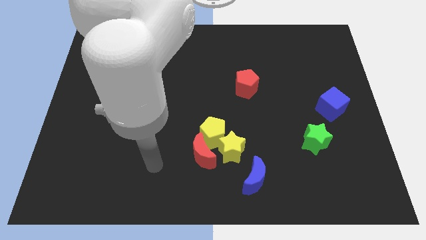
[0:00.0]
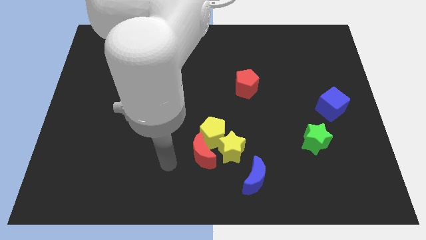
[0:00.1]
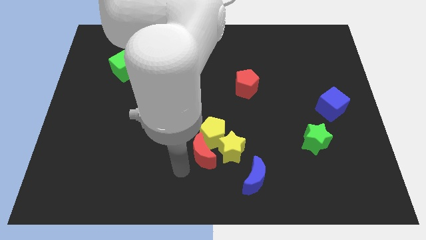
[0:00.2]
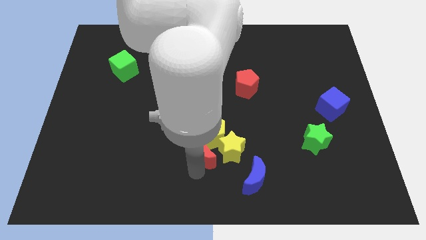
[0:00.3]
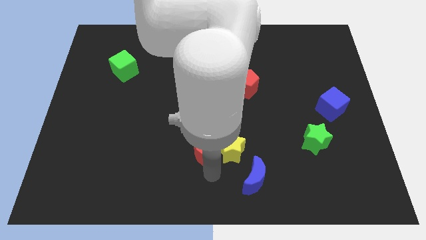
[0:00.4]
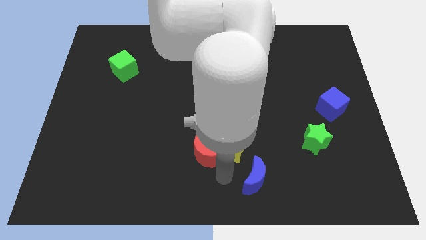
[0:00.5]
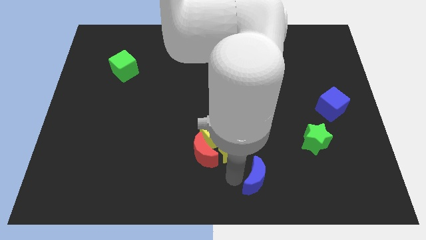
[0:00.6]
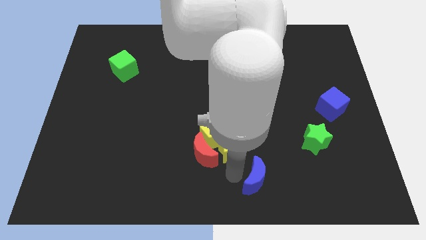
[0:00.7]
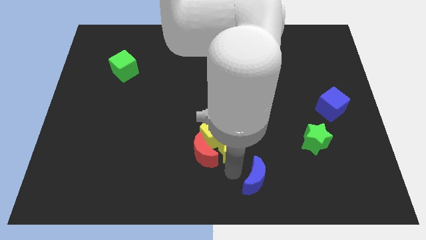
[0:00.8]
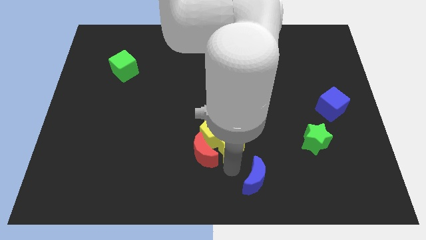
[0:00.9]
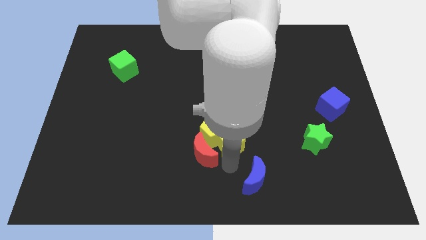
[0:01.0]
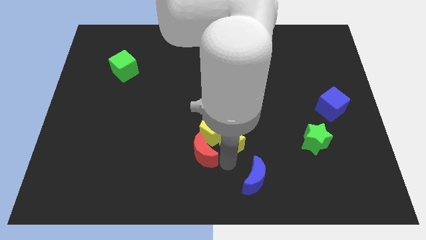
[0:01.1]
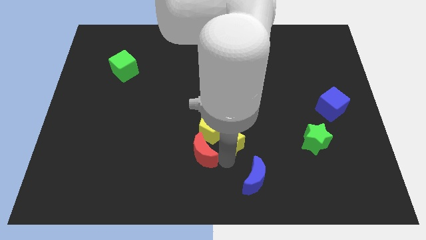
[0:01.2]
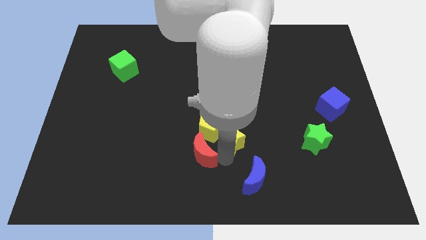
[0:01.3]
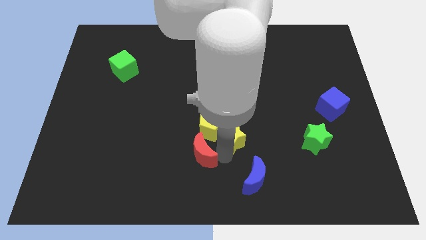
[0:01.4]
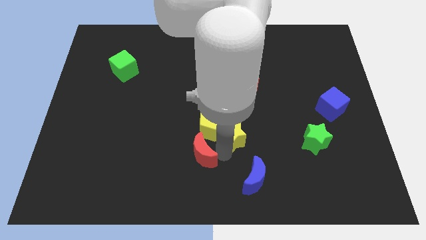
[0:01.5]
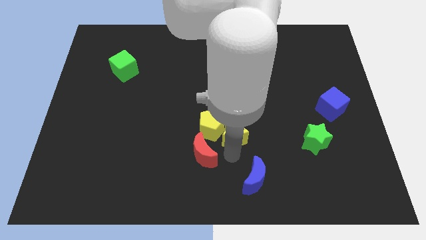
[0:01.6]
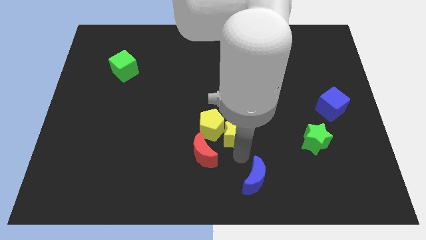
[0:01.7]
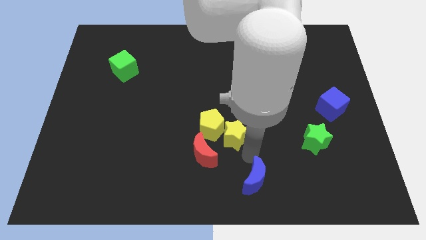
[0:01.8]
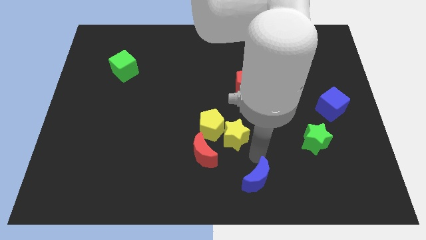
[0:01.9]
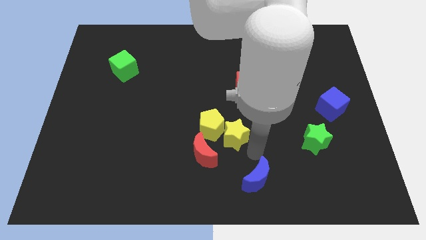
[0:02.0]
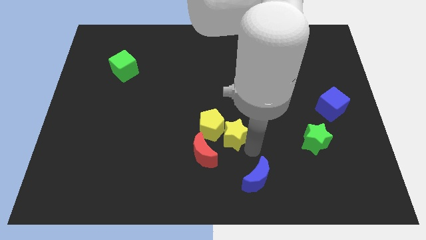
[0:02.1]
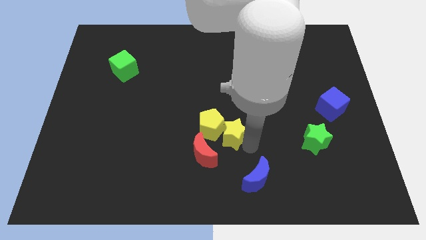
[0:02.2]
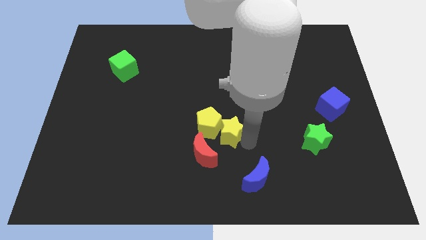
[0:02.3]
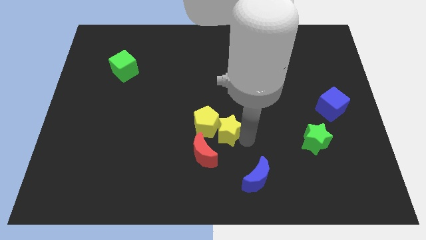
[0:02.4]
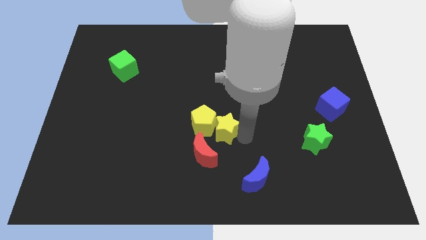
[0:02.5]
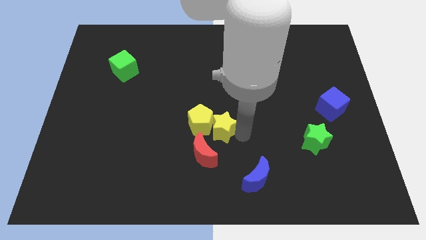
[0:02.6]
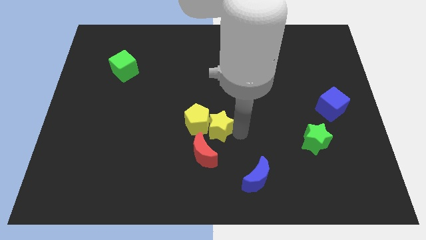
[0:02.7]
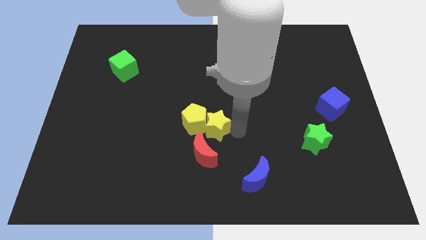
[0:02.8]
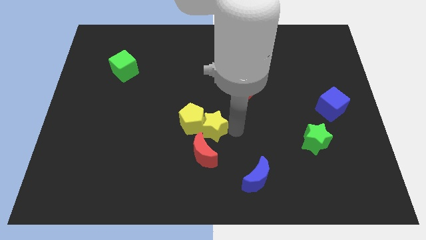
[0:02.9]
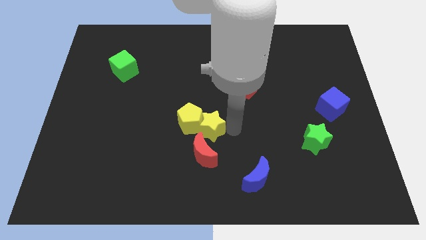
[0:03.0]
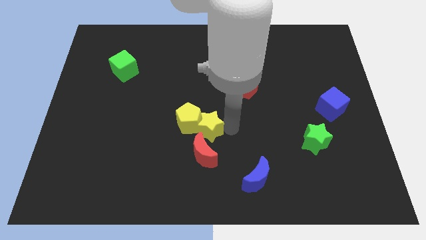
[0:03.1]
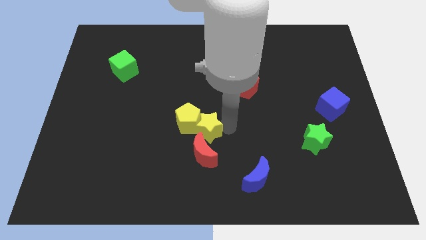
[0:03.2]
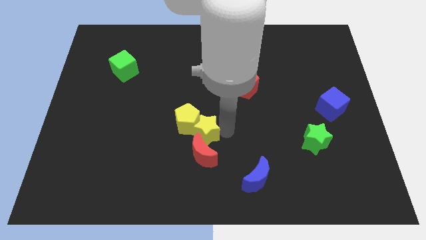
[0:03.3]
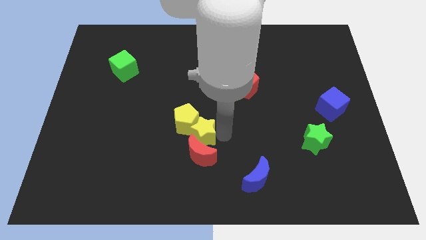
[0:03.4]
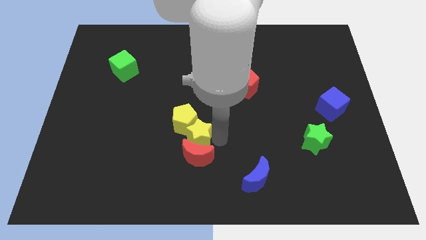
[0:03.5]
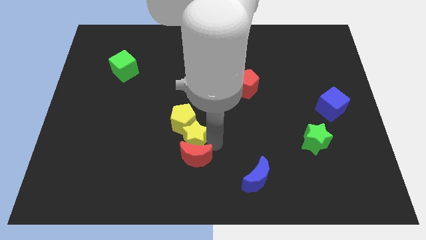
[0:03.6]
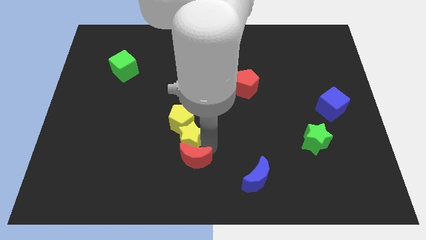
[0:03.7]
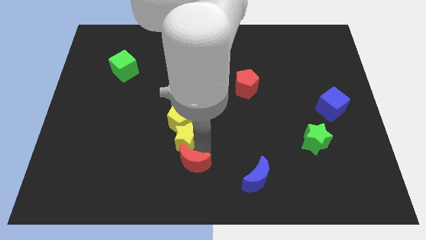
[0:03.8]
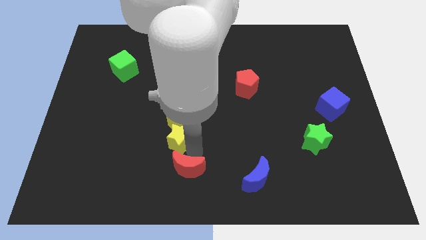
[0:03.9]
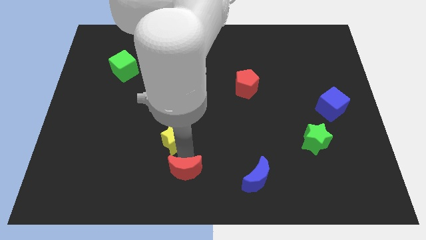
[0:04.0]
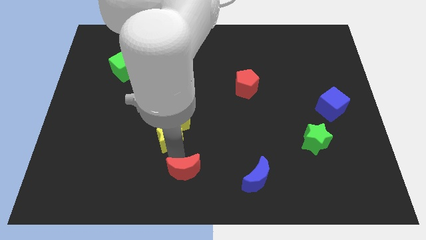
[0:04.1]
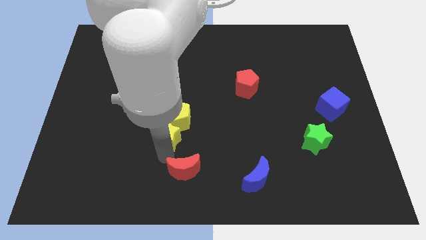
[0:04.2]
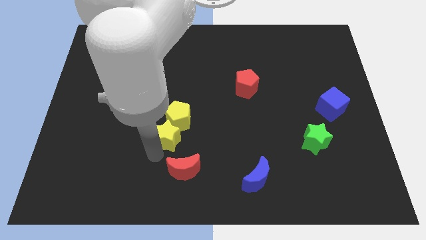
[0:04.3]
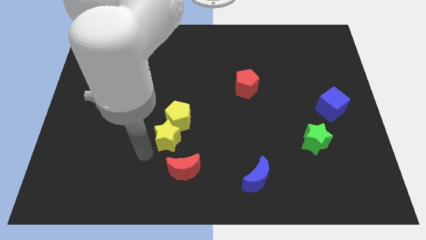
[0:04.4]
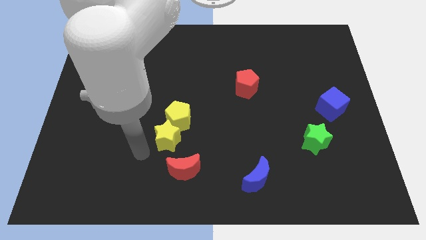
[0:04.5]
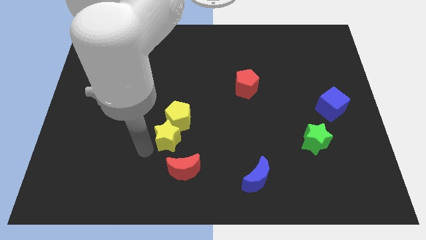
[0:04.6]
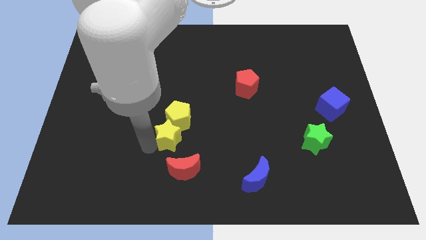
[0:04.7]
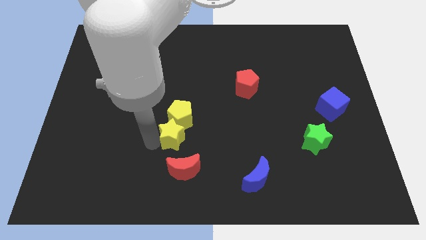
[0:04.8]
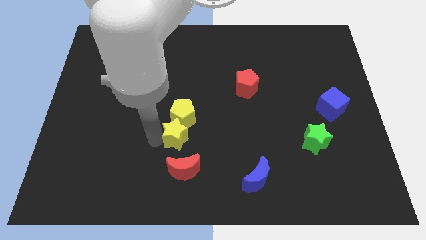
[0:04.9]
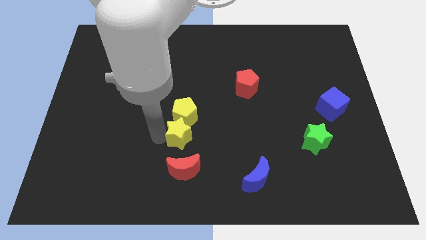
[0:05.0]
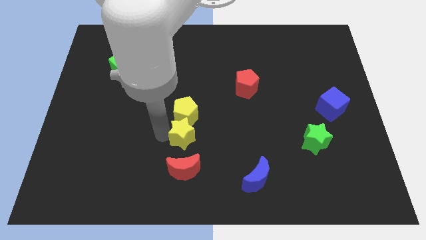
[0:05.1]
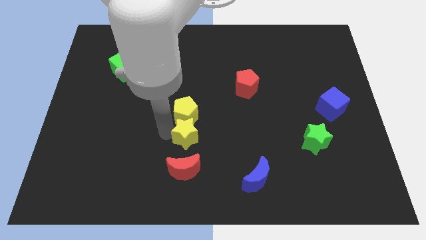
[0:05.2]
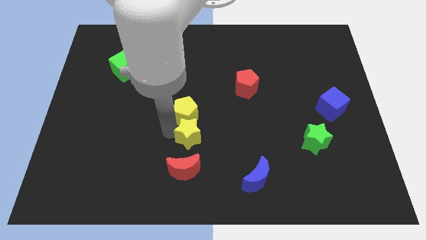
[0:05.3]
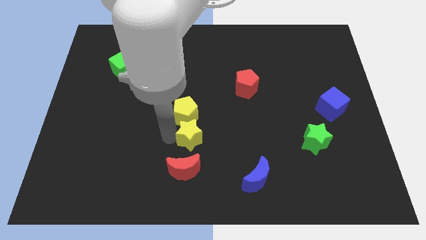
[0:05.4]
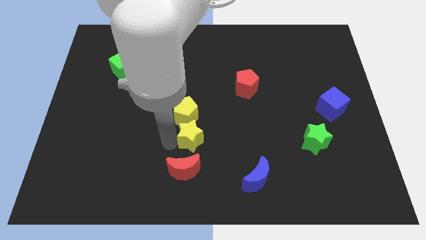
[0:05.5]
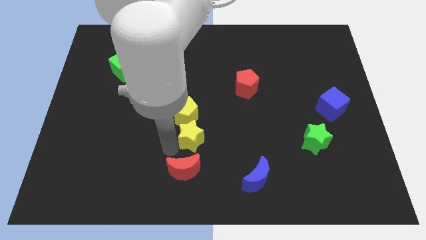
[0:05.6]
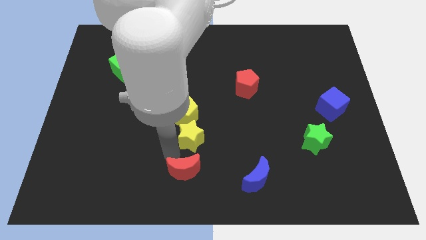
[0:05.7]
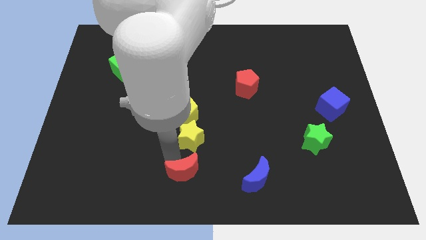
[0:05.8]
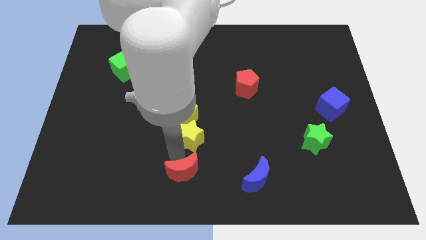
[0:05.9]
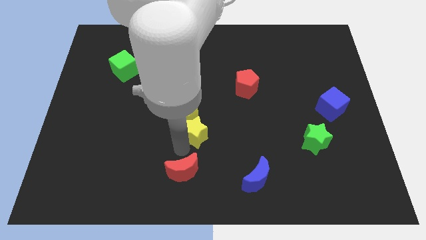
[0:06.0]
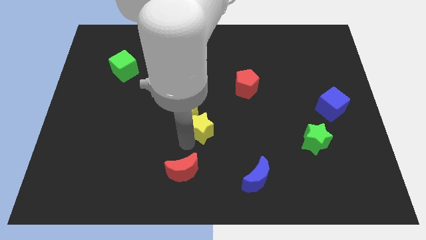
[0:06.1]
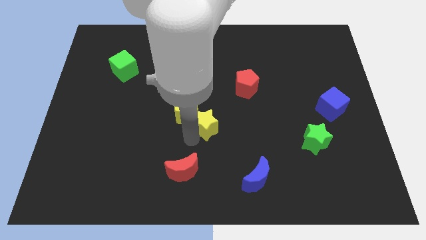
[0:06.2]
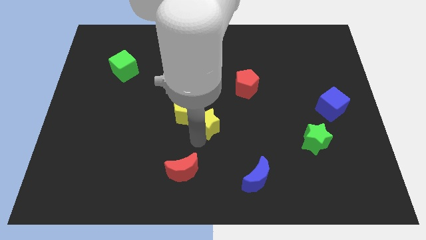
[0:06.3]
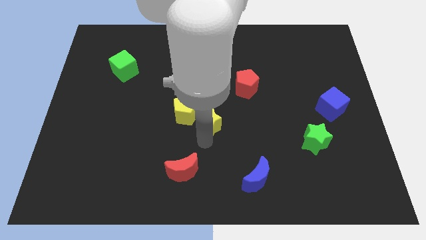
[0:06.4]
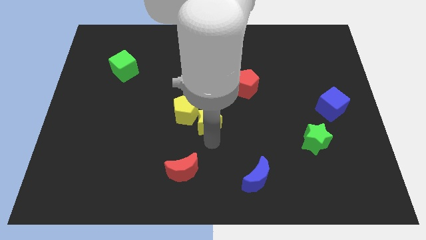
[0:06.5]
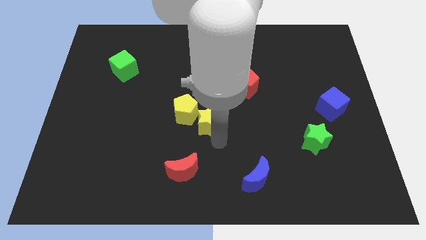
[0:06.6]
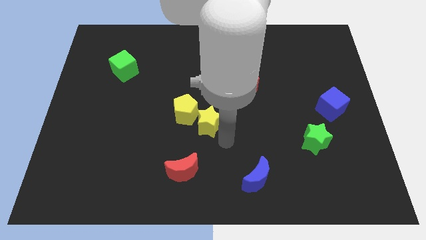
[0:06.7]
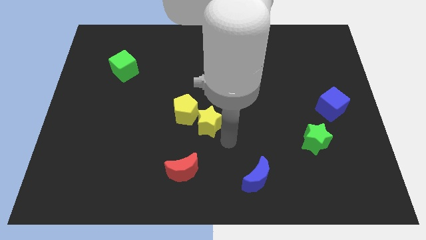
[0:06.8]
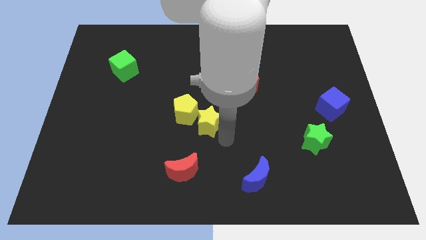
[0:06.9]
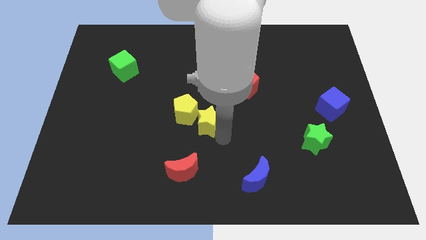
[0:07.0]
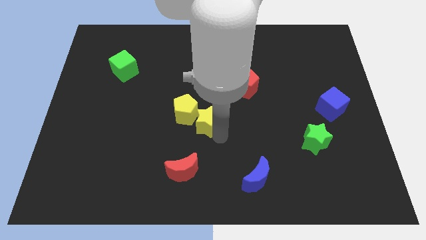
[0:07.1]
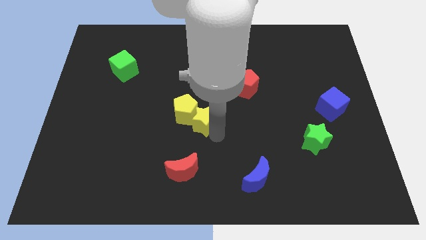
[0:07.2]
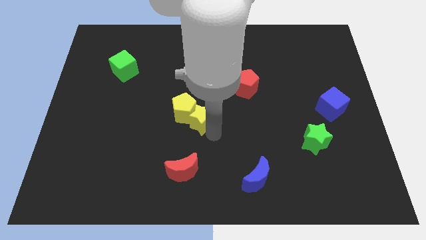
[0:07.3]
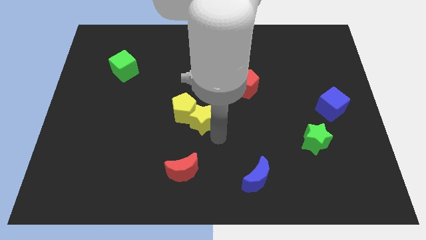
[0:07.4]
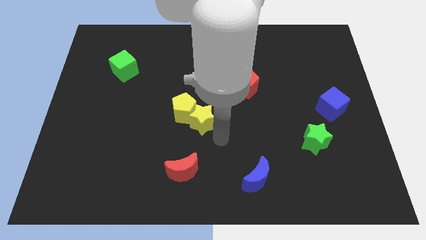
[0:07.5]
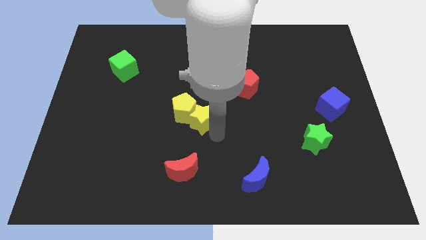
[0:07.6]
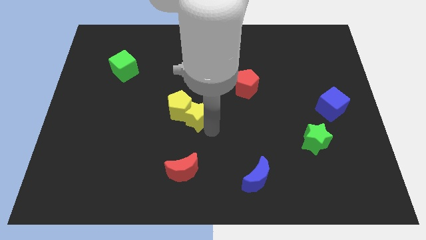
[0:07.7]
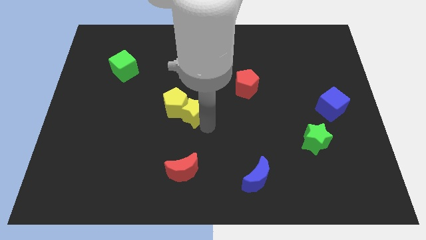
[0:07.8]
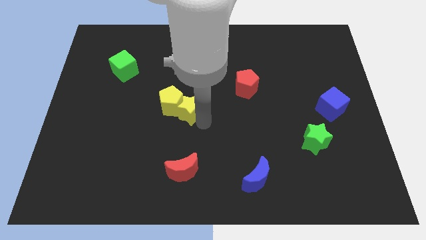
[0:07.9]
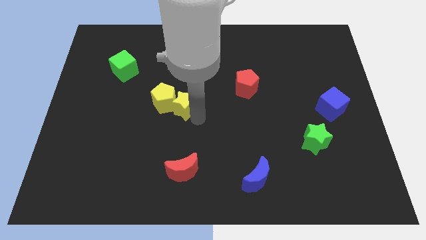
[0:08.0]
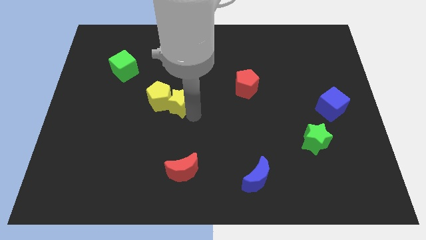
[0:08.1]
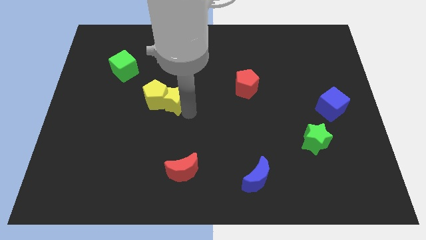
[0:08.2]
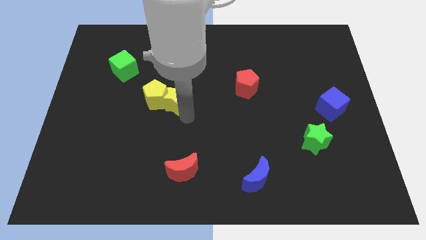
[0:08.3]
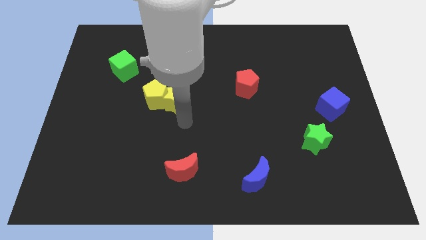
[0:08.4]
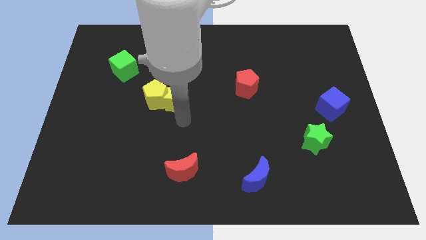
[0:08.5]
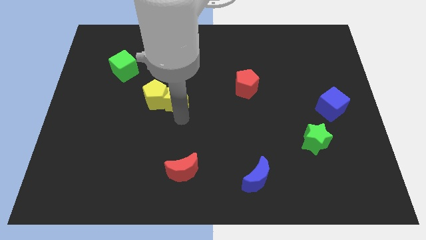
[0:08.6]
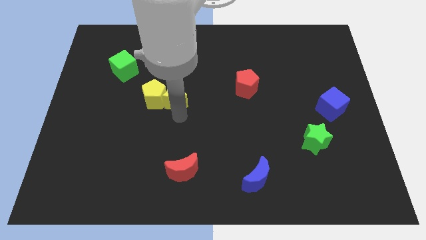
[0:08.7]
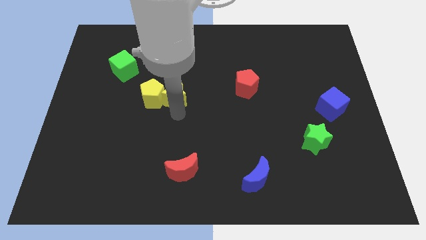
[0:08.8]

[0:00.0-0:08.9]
slide the yellow star upwards and left diagonally
